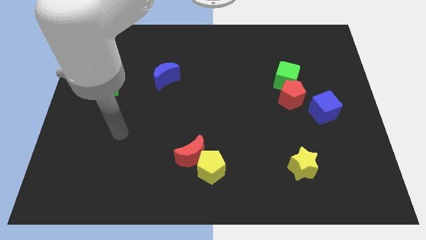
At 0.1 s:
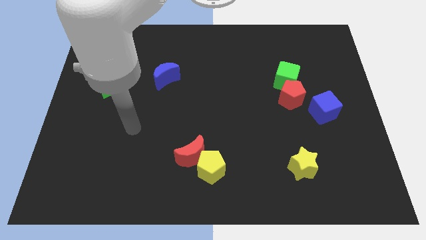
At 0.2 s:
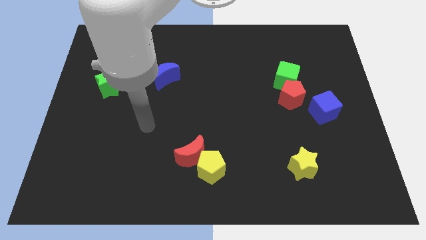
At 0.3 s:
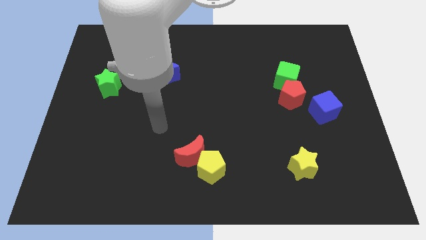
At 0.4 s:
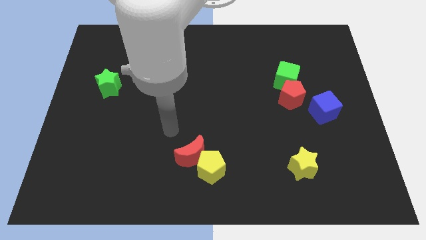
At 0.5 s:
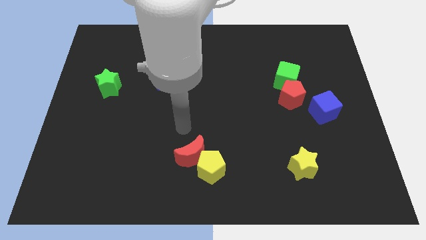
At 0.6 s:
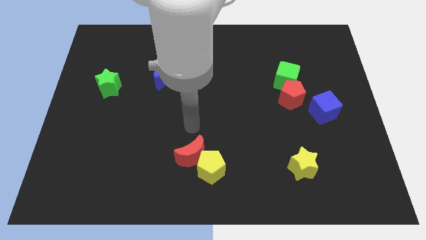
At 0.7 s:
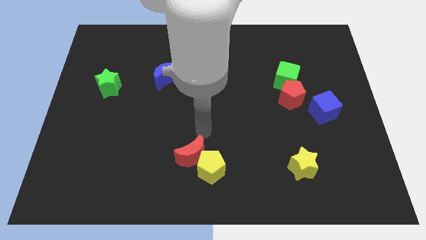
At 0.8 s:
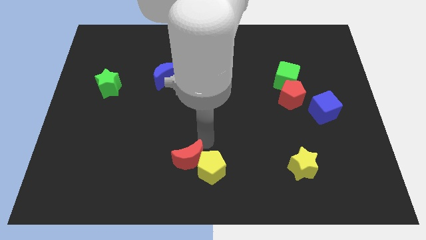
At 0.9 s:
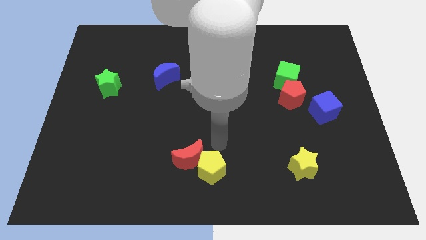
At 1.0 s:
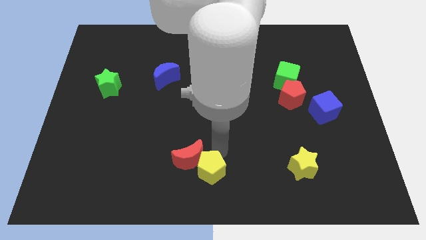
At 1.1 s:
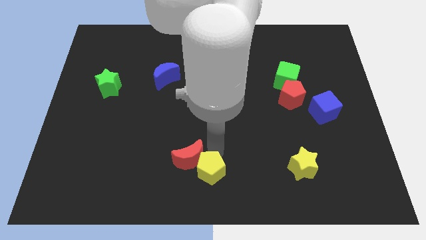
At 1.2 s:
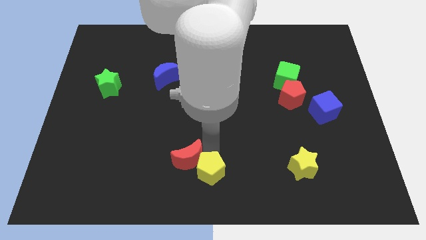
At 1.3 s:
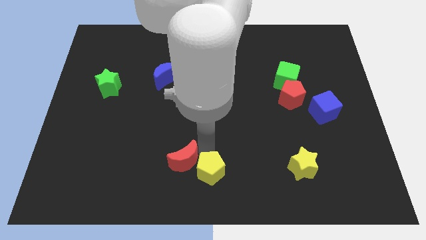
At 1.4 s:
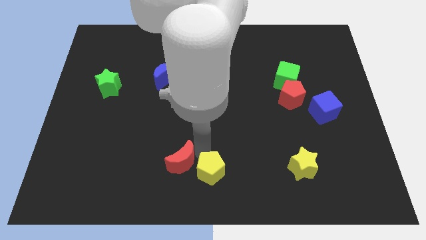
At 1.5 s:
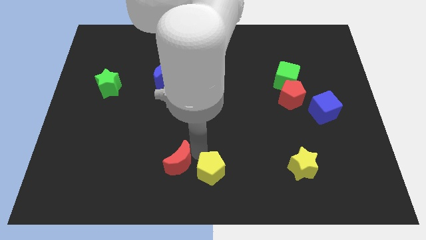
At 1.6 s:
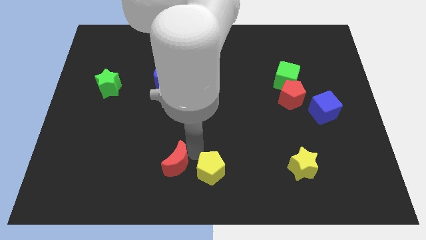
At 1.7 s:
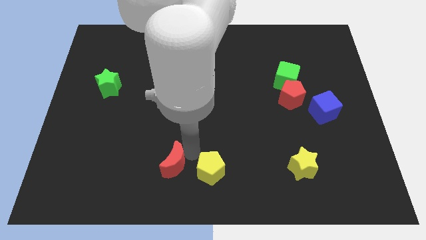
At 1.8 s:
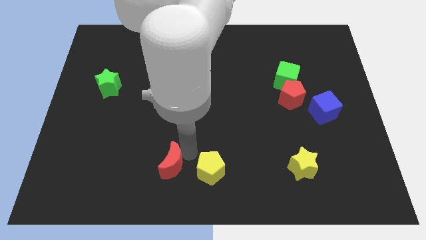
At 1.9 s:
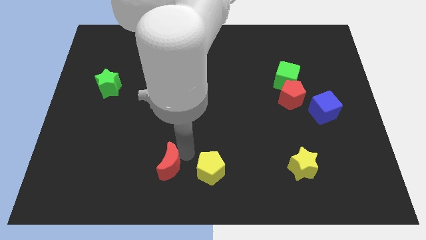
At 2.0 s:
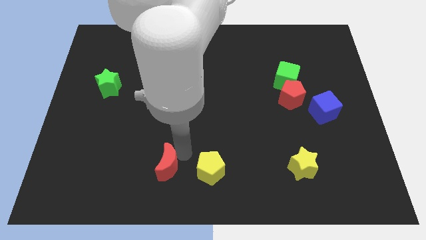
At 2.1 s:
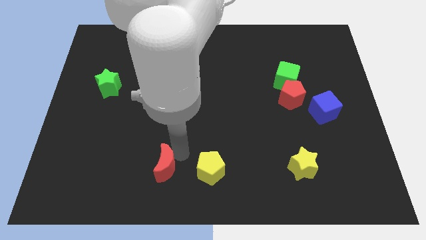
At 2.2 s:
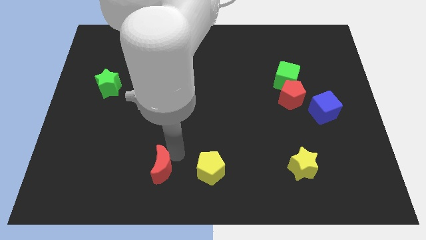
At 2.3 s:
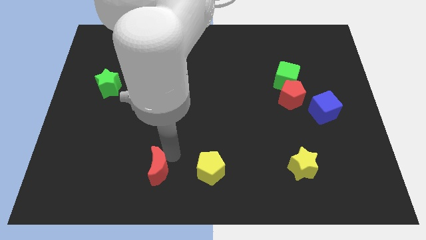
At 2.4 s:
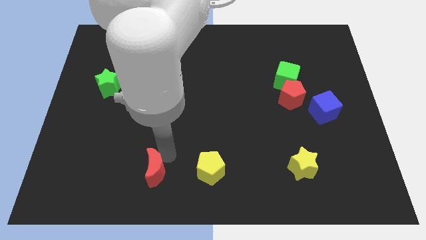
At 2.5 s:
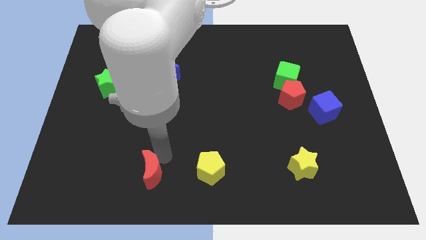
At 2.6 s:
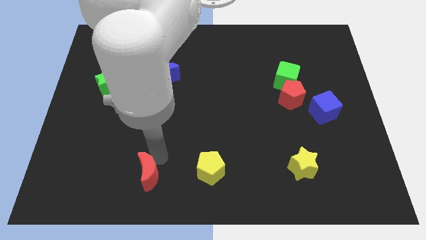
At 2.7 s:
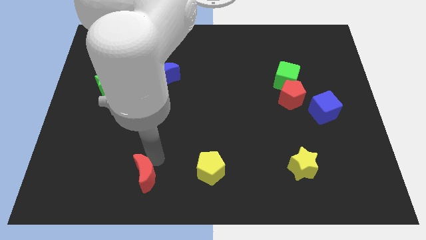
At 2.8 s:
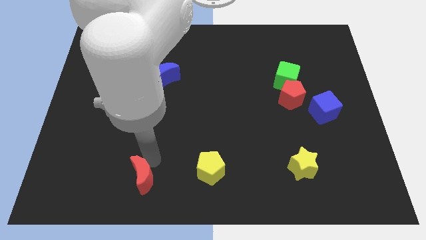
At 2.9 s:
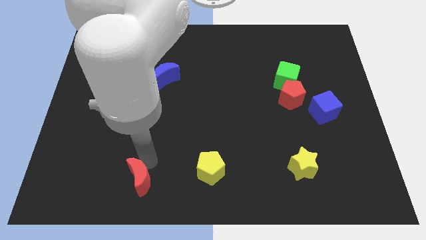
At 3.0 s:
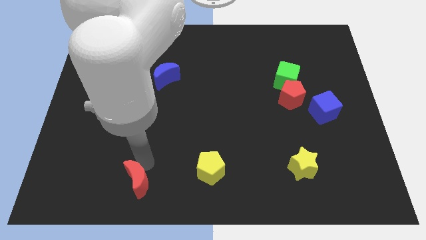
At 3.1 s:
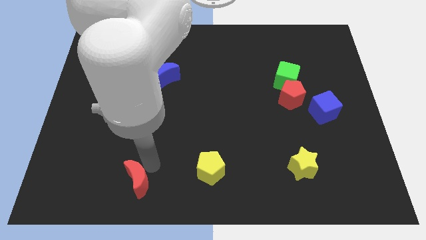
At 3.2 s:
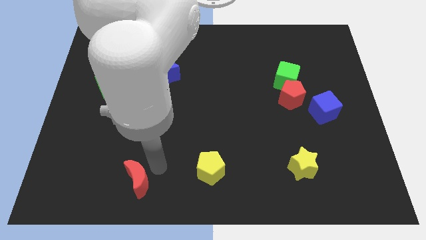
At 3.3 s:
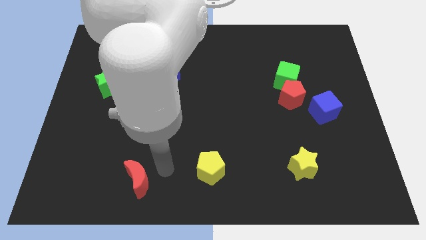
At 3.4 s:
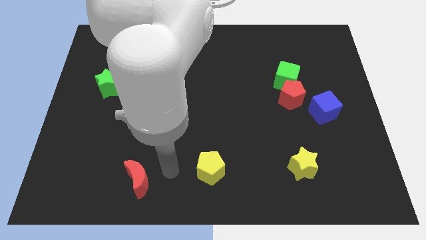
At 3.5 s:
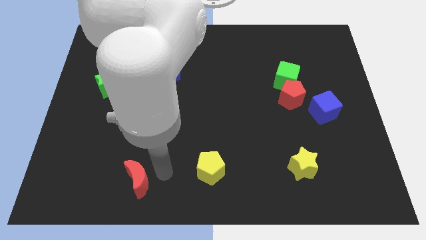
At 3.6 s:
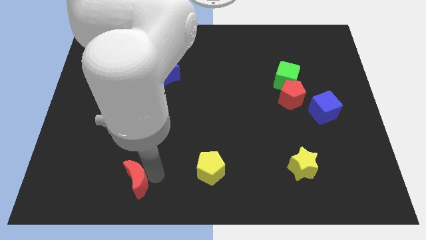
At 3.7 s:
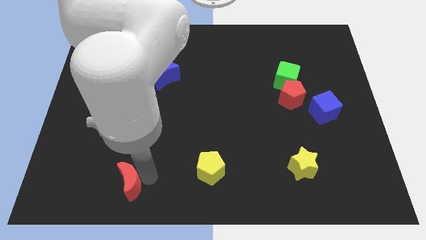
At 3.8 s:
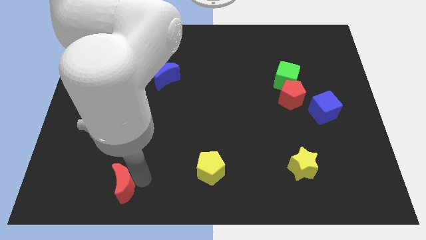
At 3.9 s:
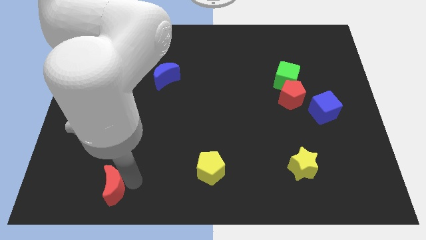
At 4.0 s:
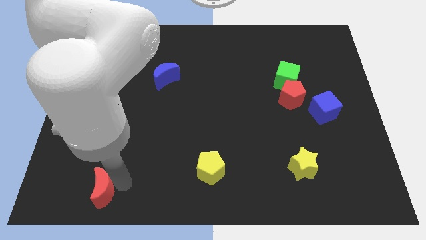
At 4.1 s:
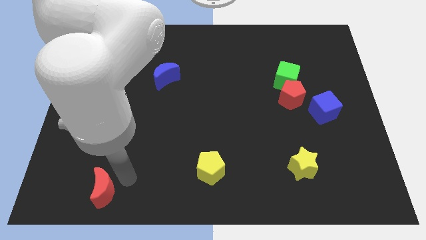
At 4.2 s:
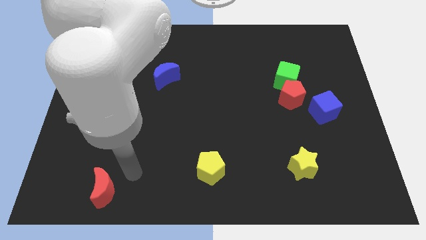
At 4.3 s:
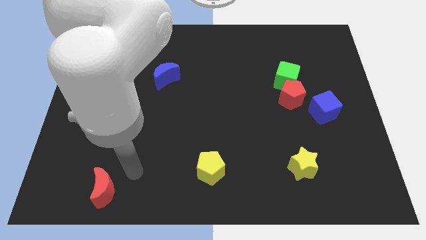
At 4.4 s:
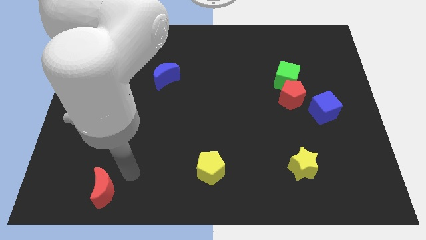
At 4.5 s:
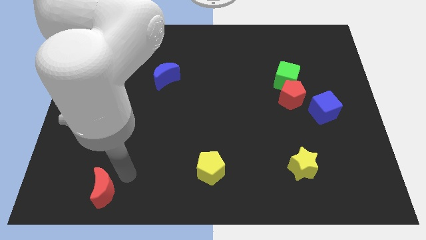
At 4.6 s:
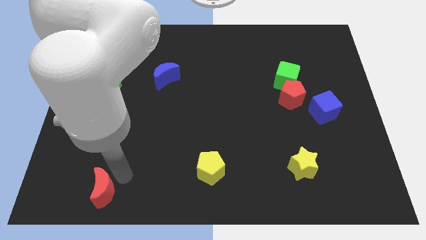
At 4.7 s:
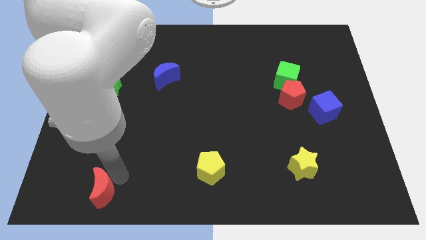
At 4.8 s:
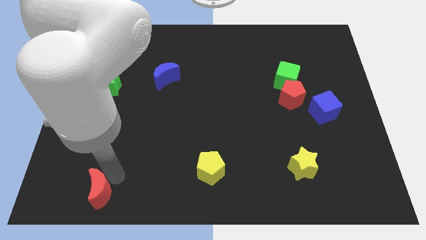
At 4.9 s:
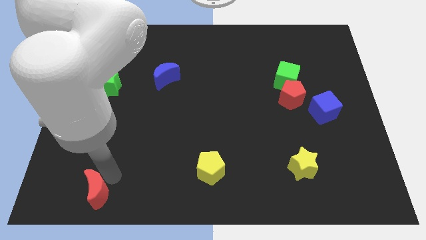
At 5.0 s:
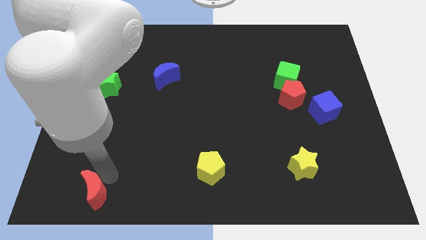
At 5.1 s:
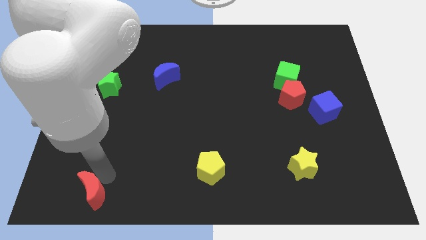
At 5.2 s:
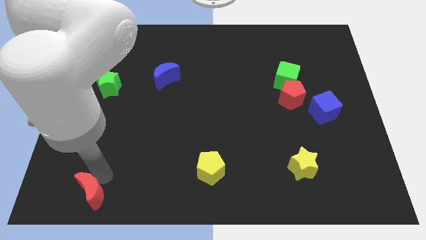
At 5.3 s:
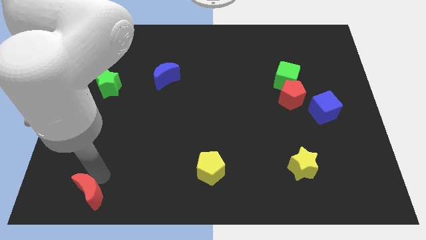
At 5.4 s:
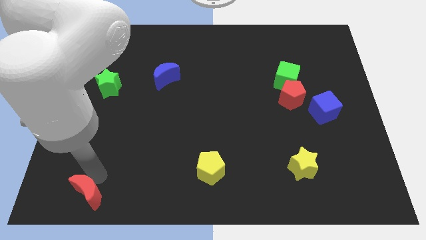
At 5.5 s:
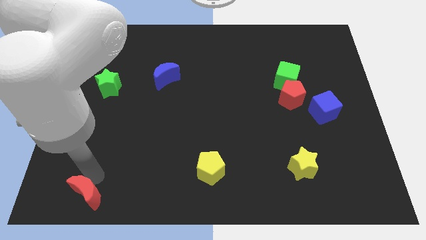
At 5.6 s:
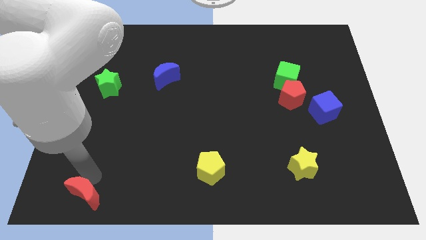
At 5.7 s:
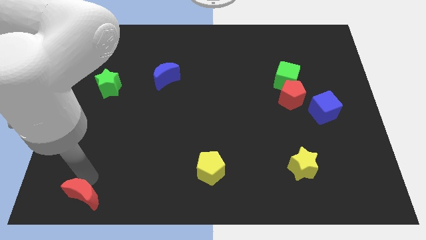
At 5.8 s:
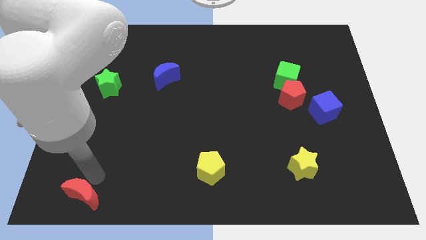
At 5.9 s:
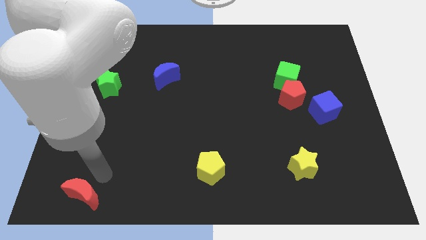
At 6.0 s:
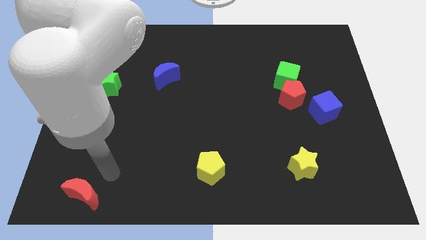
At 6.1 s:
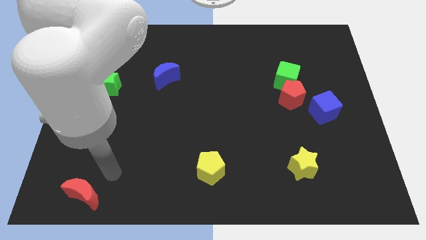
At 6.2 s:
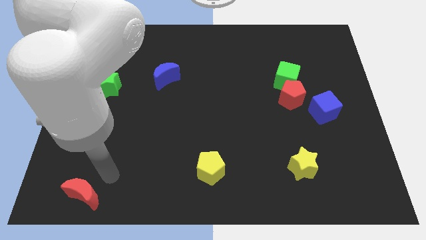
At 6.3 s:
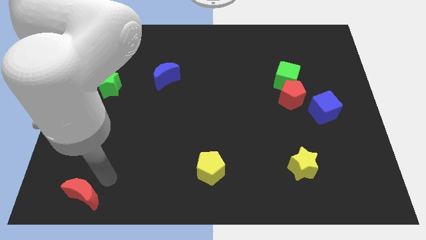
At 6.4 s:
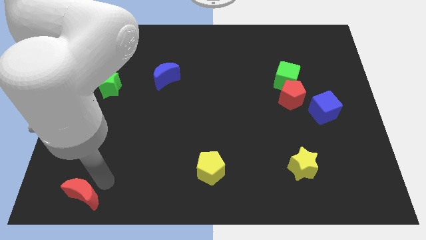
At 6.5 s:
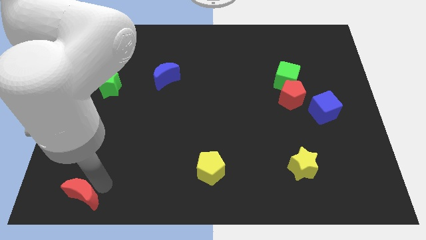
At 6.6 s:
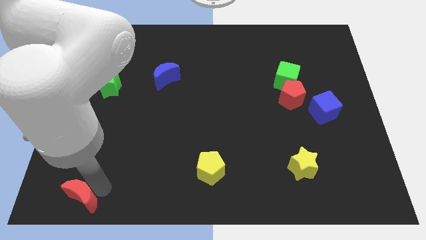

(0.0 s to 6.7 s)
push the red moon to the lower left corner
